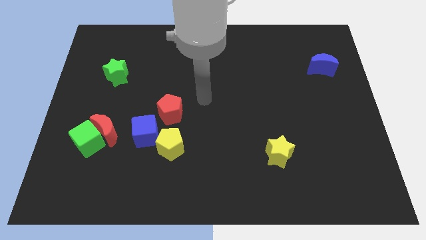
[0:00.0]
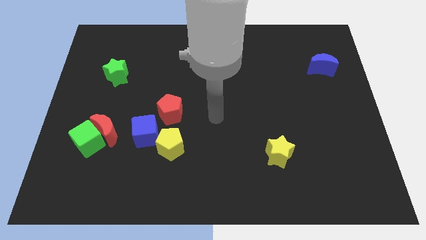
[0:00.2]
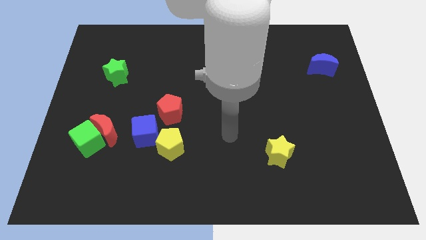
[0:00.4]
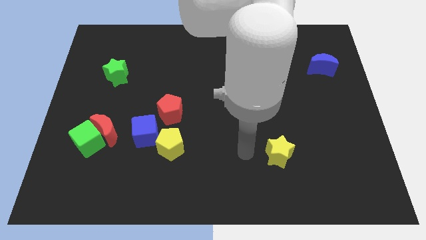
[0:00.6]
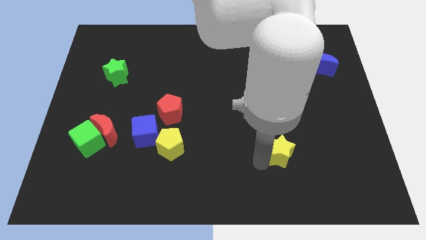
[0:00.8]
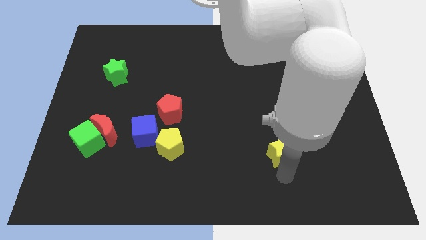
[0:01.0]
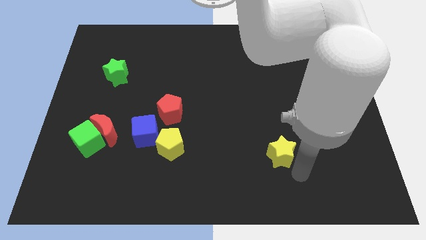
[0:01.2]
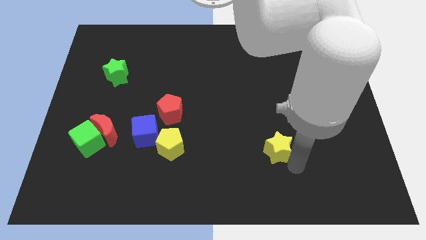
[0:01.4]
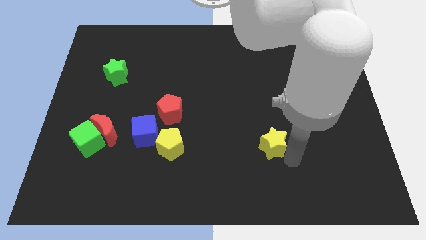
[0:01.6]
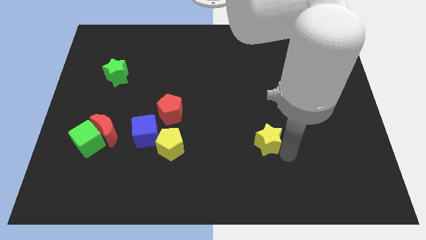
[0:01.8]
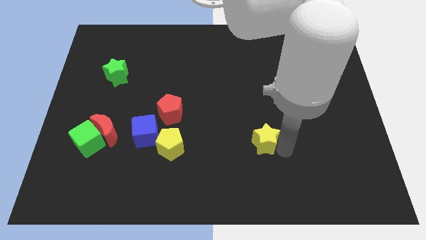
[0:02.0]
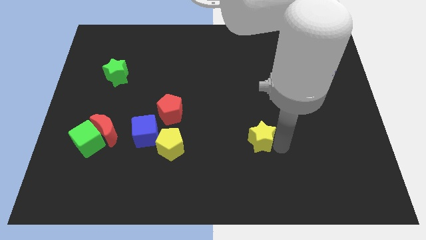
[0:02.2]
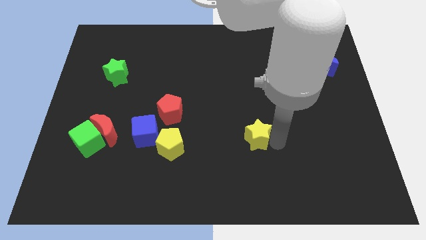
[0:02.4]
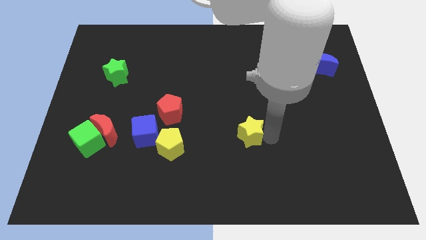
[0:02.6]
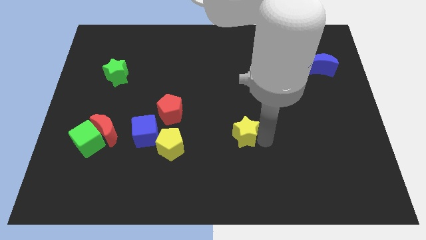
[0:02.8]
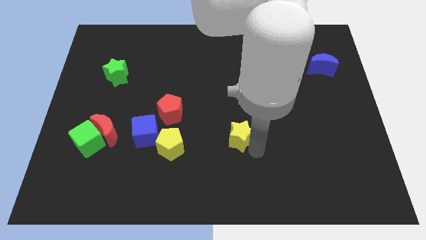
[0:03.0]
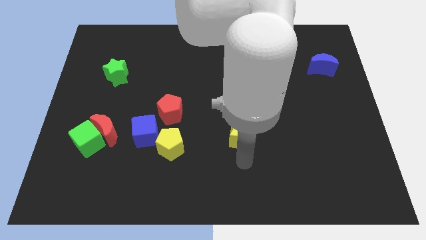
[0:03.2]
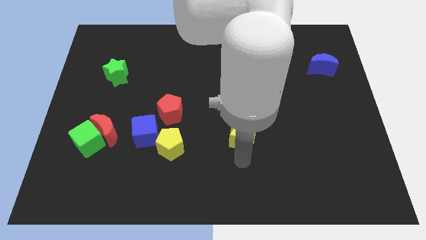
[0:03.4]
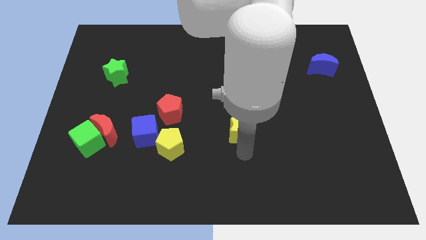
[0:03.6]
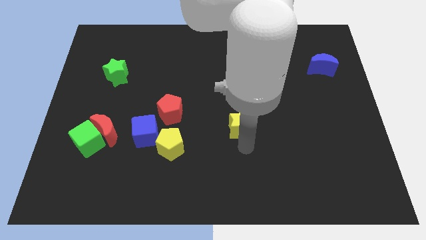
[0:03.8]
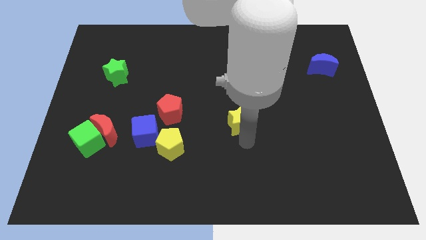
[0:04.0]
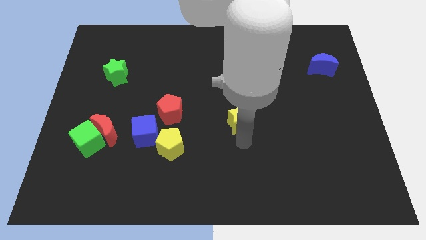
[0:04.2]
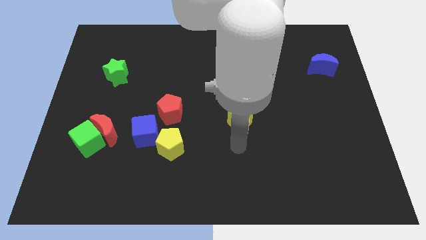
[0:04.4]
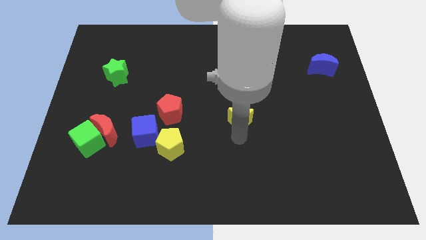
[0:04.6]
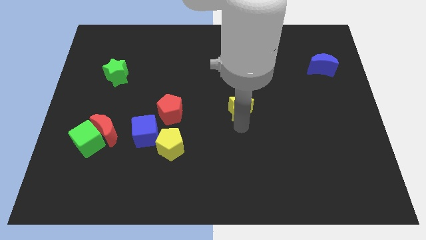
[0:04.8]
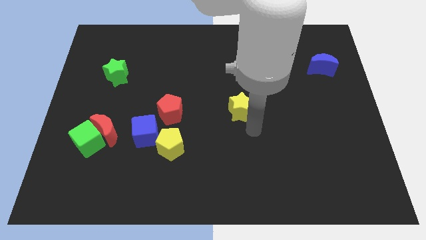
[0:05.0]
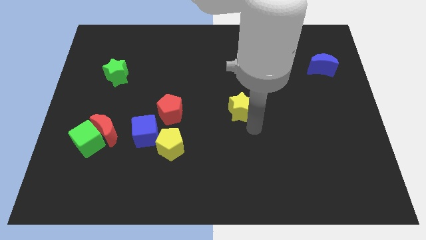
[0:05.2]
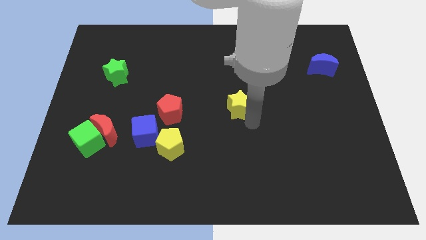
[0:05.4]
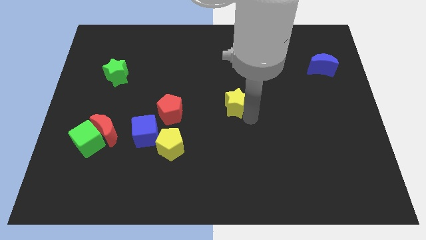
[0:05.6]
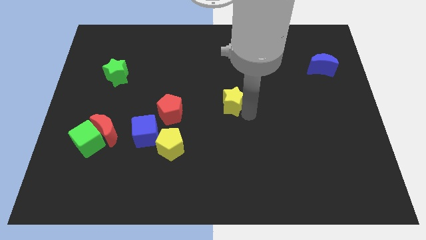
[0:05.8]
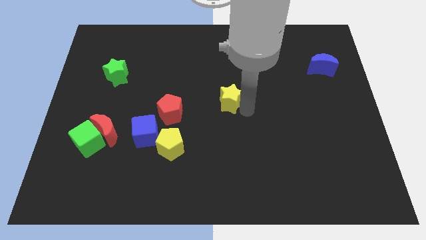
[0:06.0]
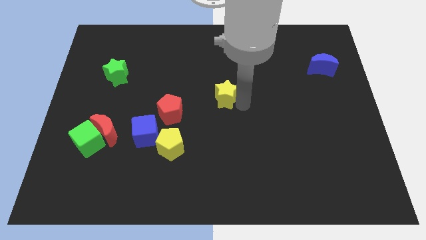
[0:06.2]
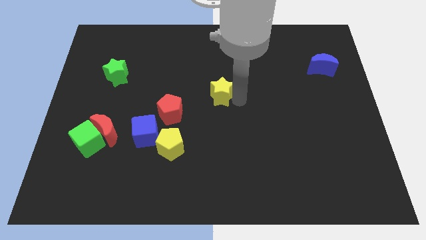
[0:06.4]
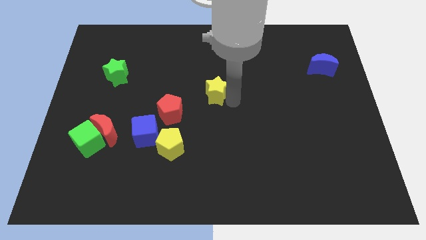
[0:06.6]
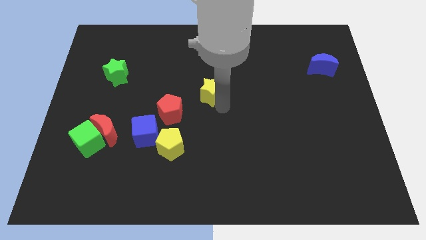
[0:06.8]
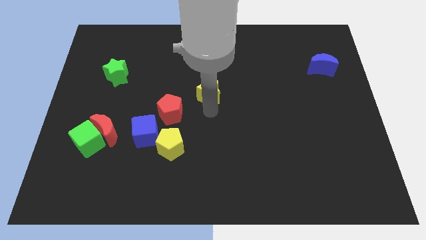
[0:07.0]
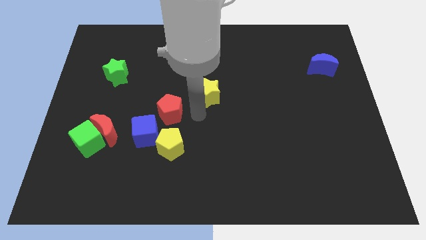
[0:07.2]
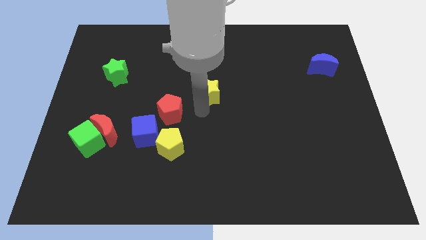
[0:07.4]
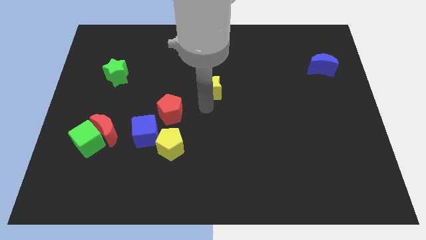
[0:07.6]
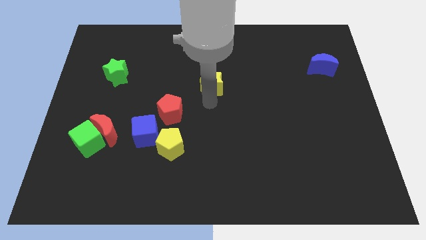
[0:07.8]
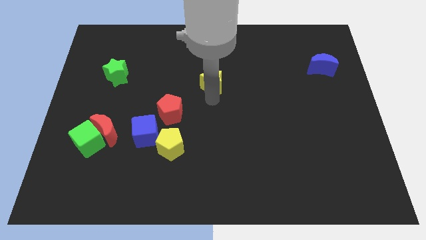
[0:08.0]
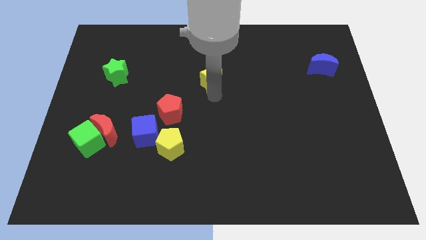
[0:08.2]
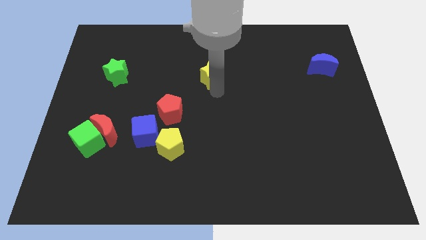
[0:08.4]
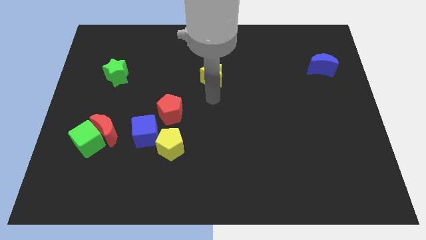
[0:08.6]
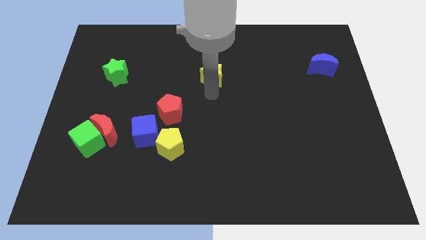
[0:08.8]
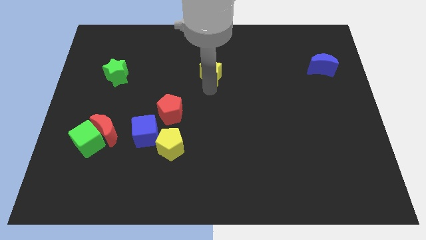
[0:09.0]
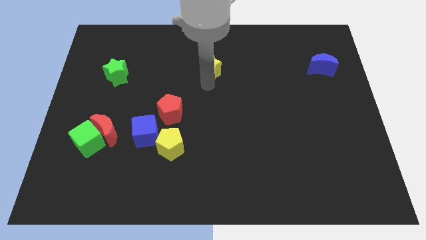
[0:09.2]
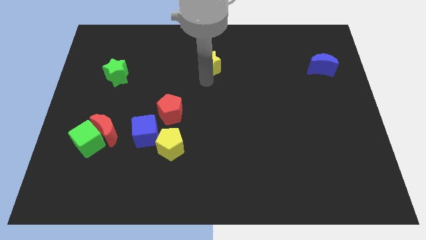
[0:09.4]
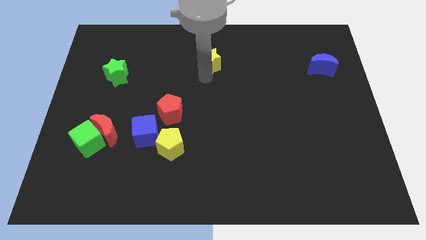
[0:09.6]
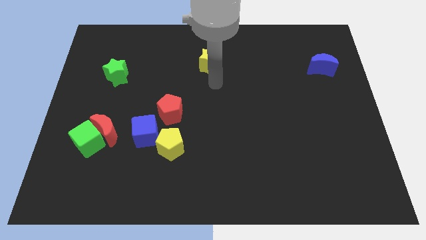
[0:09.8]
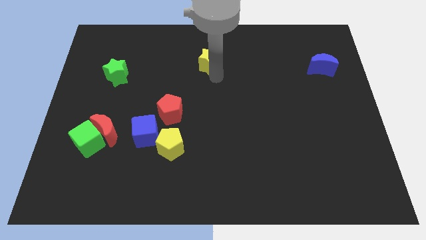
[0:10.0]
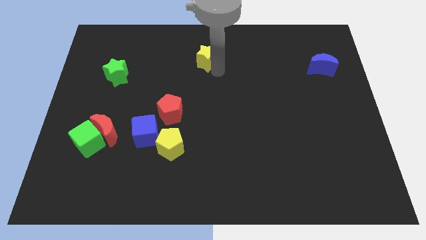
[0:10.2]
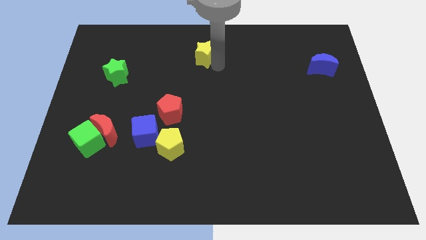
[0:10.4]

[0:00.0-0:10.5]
slide the yellow star to the top side
